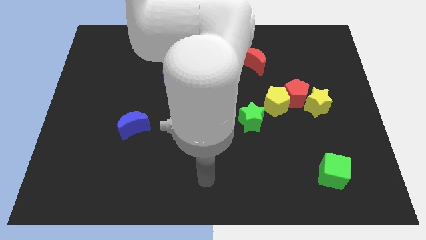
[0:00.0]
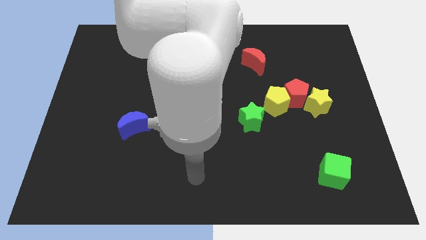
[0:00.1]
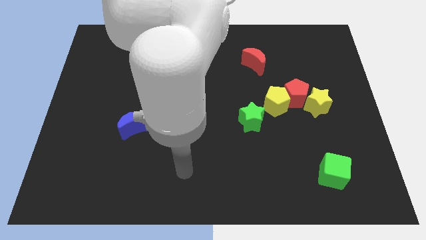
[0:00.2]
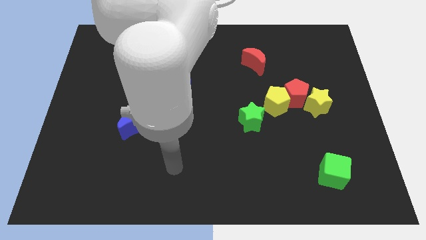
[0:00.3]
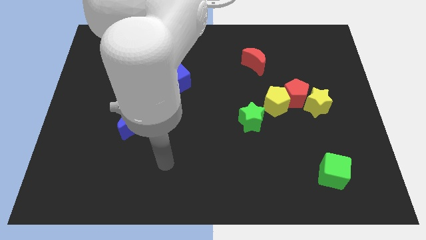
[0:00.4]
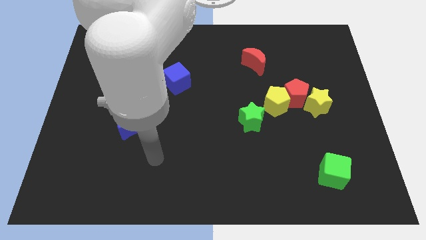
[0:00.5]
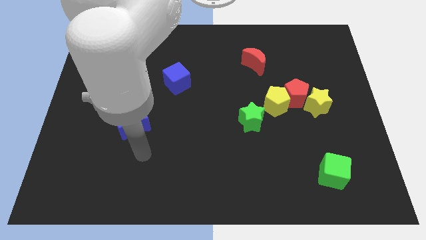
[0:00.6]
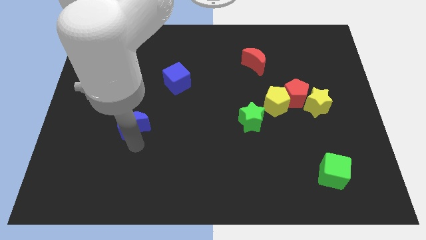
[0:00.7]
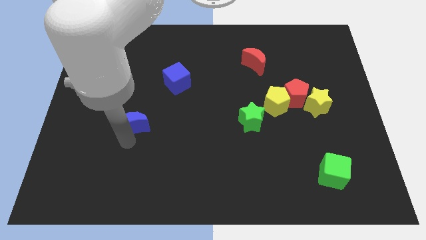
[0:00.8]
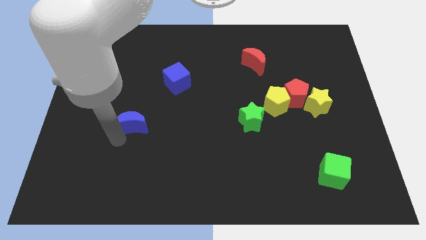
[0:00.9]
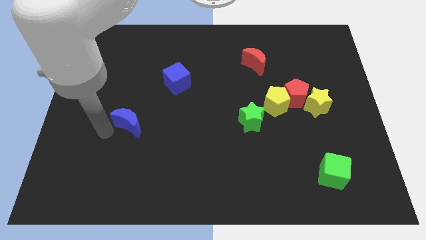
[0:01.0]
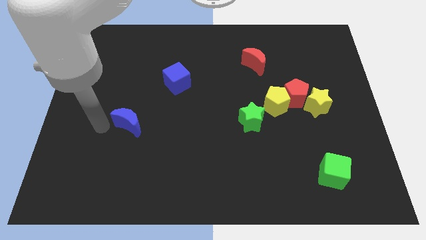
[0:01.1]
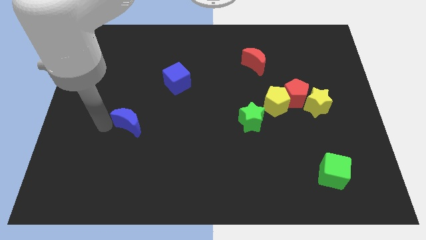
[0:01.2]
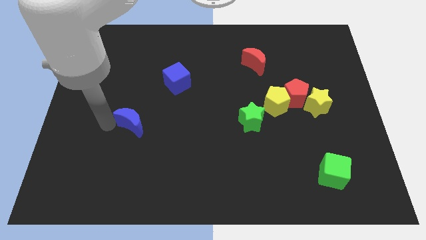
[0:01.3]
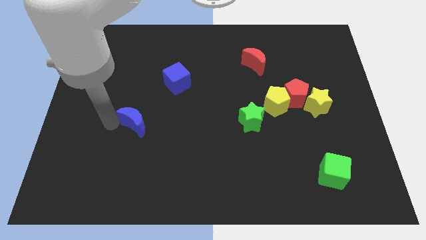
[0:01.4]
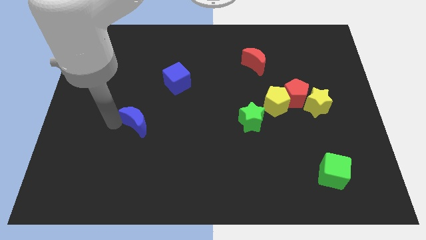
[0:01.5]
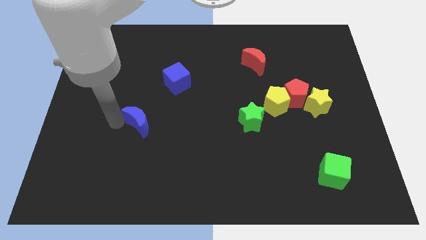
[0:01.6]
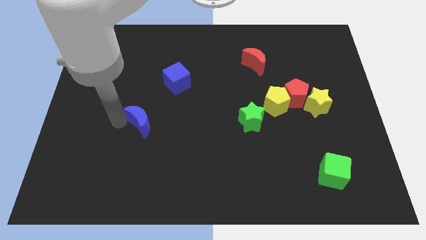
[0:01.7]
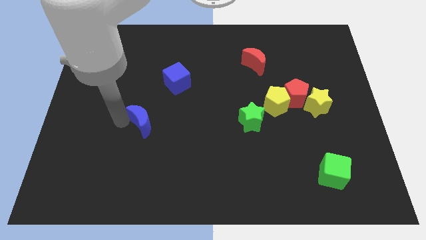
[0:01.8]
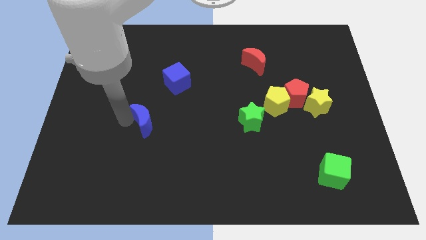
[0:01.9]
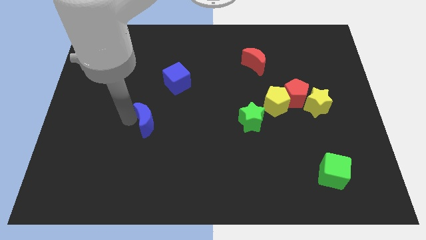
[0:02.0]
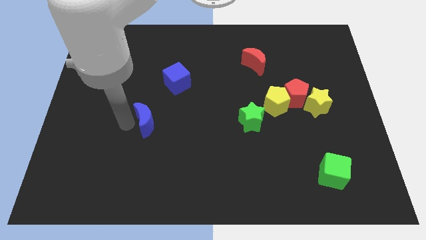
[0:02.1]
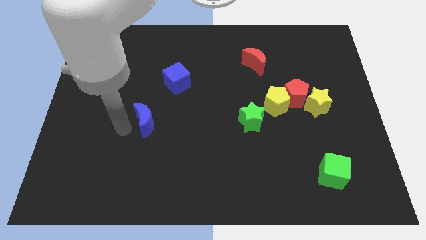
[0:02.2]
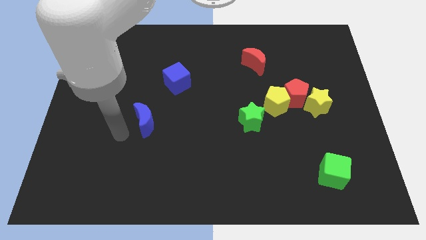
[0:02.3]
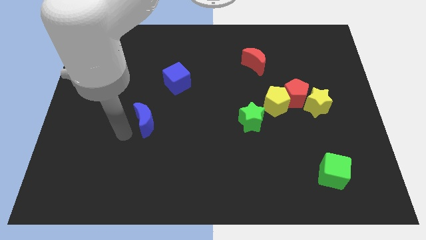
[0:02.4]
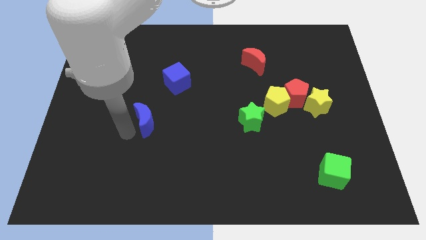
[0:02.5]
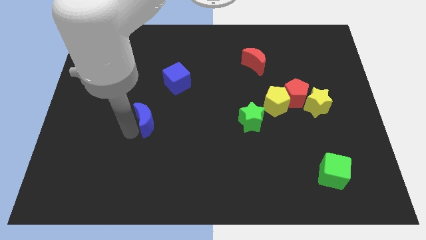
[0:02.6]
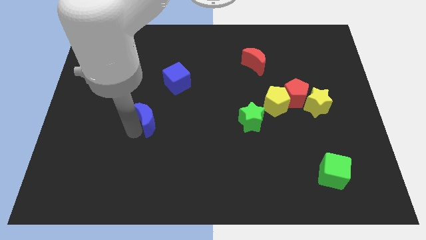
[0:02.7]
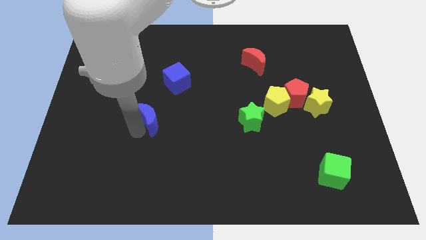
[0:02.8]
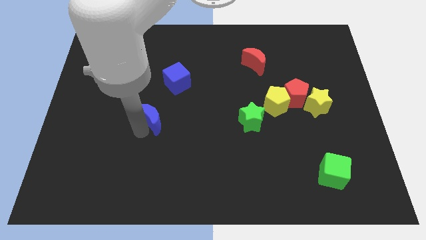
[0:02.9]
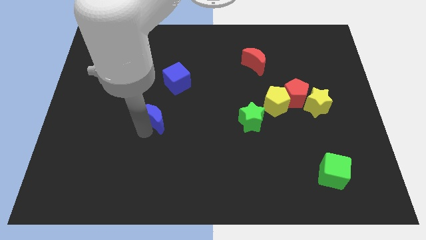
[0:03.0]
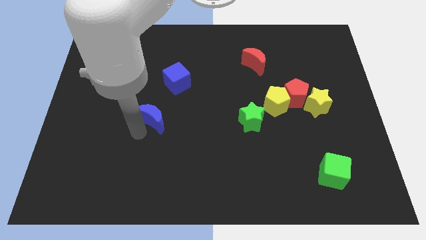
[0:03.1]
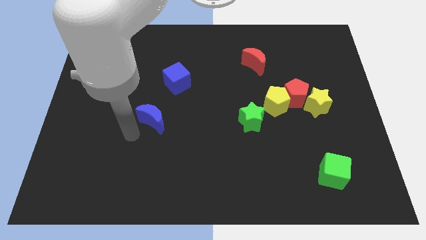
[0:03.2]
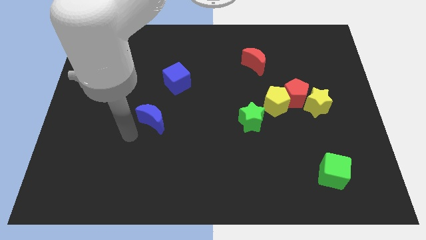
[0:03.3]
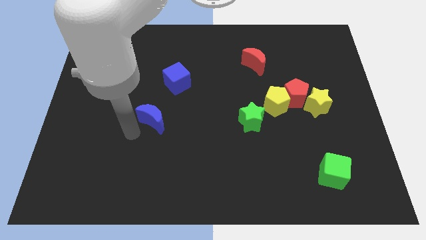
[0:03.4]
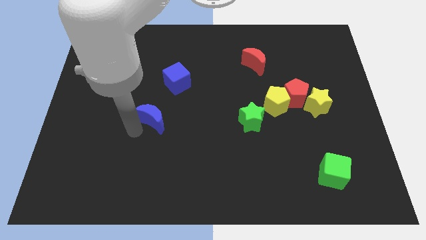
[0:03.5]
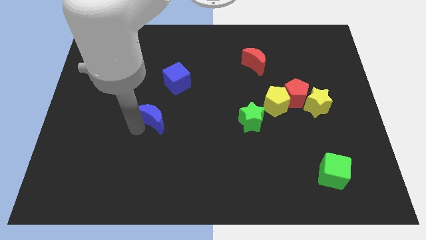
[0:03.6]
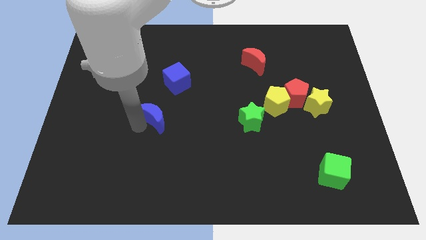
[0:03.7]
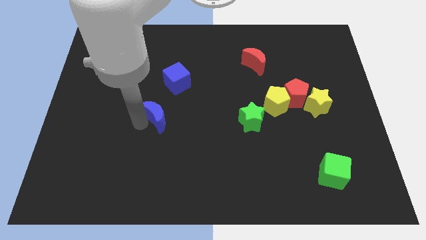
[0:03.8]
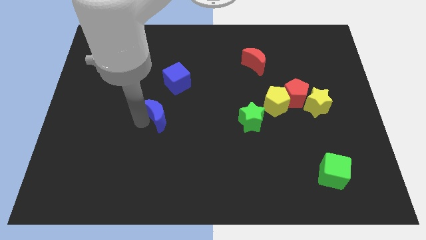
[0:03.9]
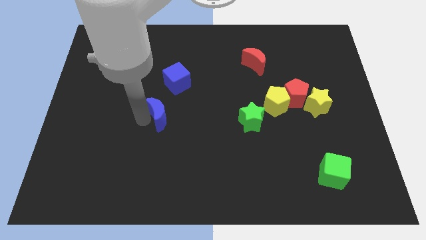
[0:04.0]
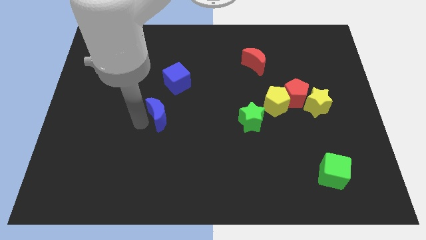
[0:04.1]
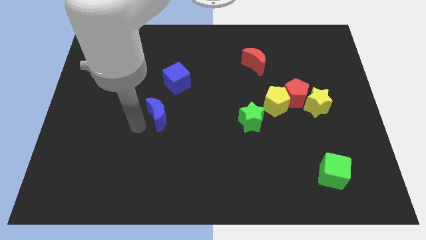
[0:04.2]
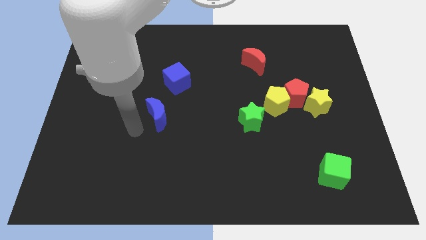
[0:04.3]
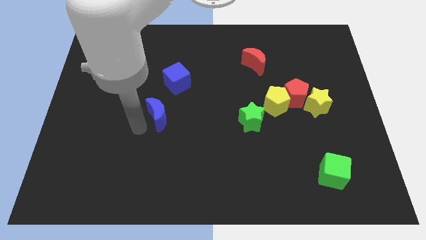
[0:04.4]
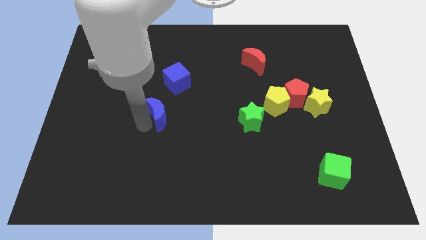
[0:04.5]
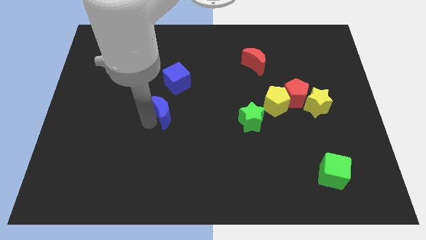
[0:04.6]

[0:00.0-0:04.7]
move the blue moon a bit upwards and to the right

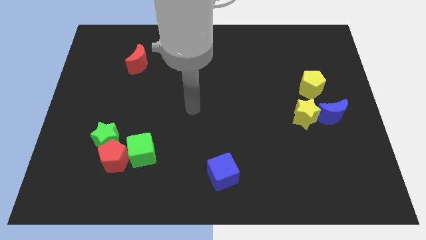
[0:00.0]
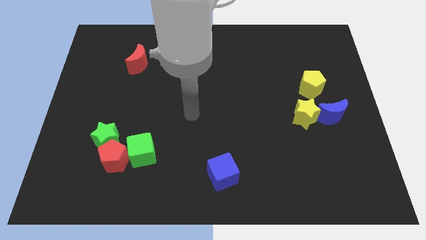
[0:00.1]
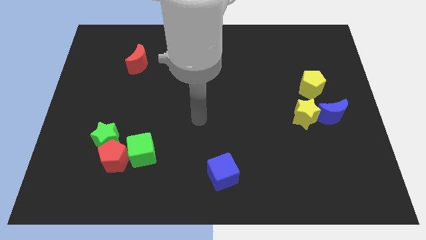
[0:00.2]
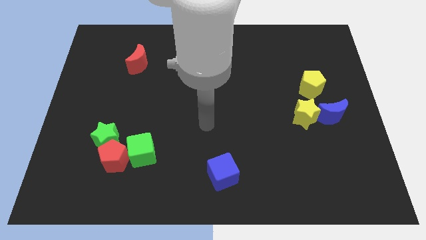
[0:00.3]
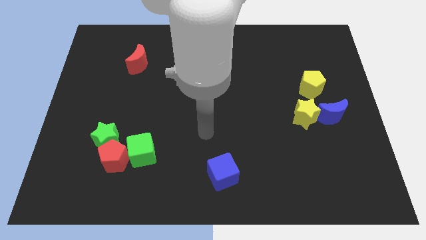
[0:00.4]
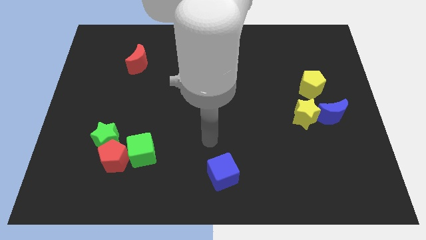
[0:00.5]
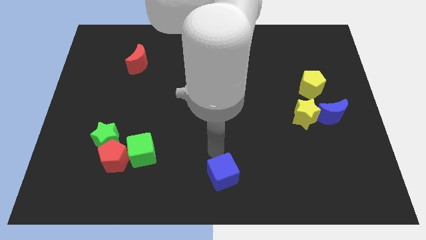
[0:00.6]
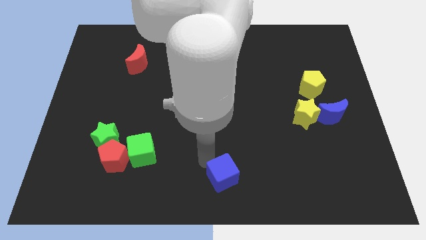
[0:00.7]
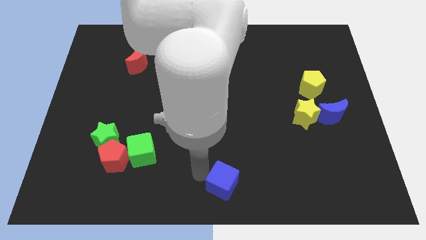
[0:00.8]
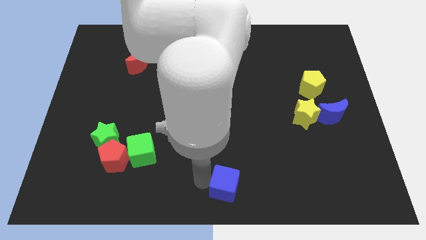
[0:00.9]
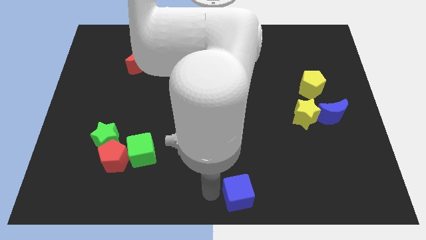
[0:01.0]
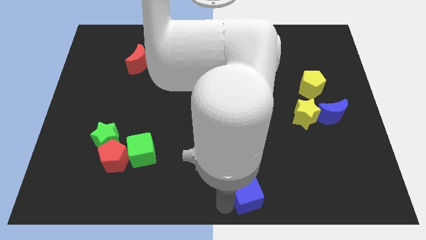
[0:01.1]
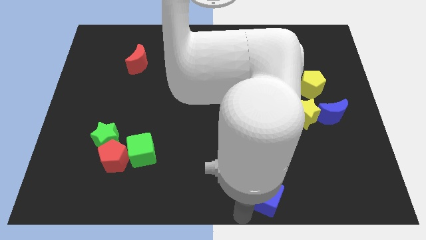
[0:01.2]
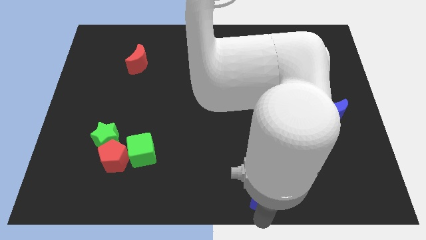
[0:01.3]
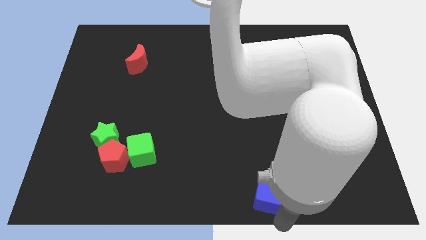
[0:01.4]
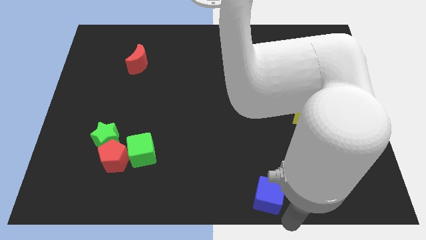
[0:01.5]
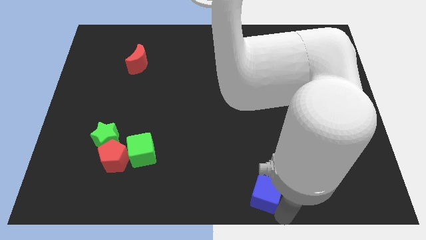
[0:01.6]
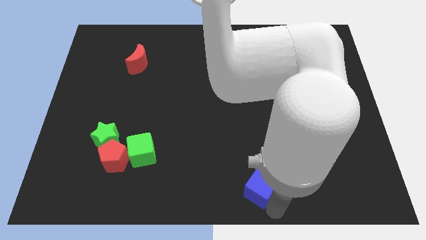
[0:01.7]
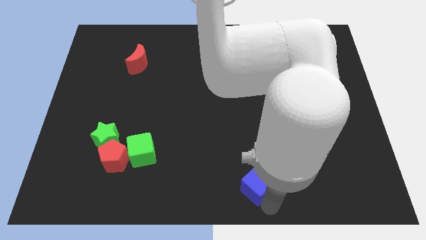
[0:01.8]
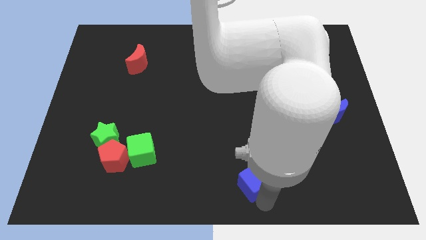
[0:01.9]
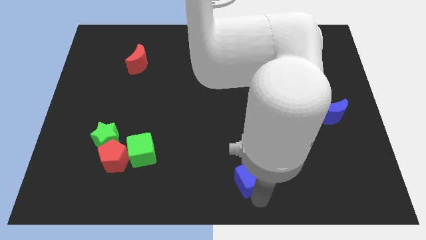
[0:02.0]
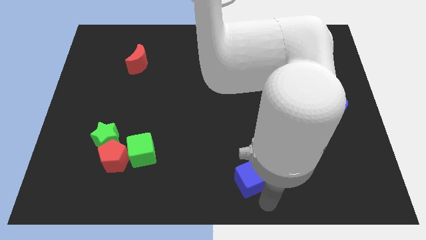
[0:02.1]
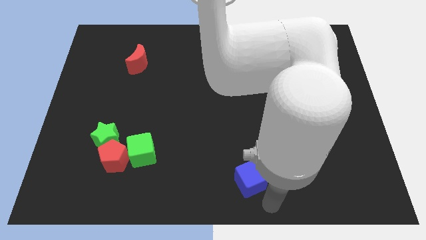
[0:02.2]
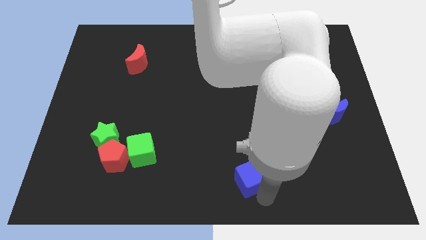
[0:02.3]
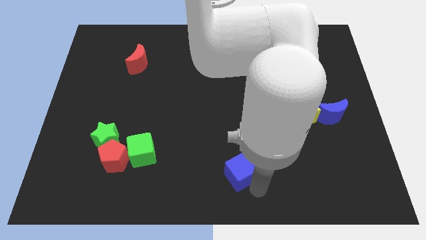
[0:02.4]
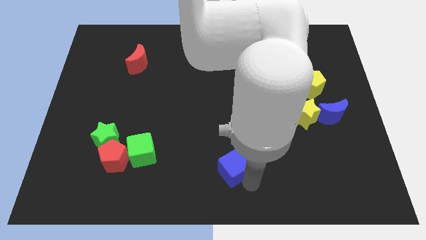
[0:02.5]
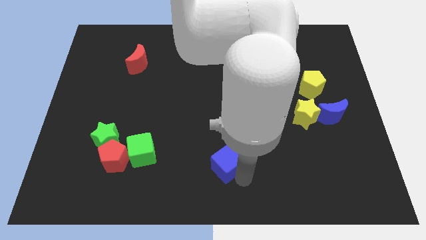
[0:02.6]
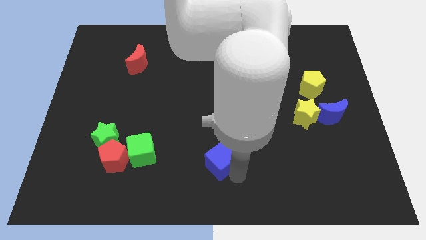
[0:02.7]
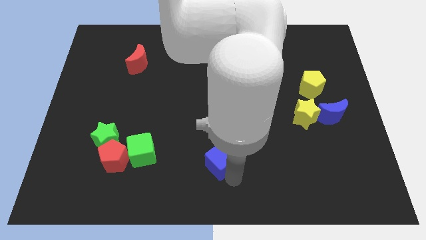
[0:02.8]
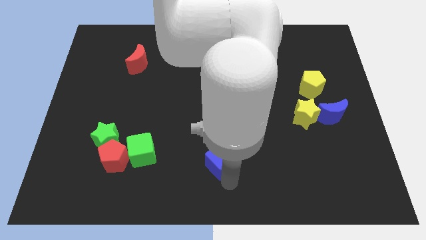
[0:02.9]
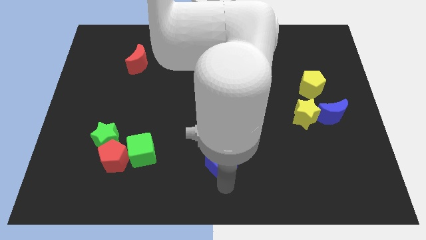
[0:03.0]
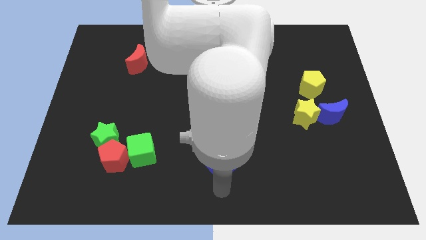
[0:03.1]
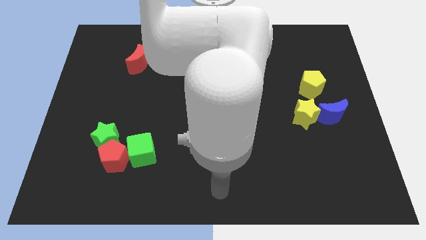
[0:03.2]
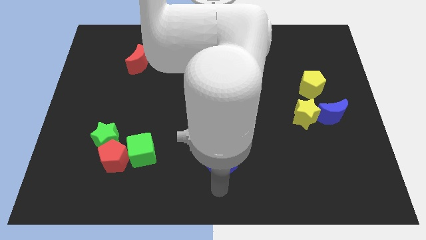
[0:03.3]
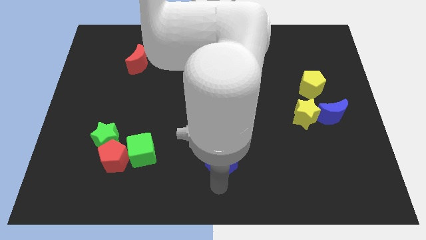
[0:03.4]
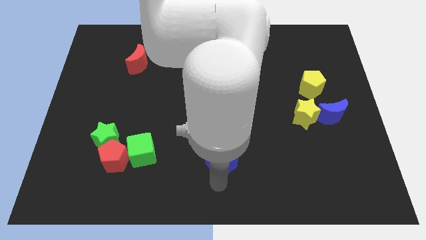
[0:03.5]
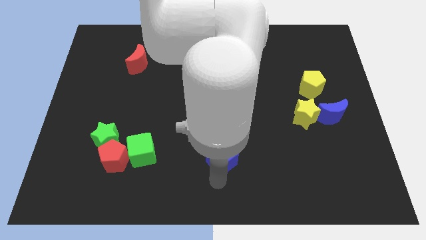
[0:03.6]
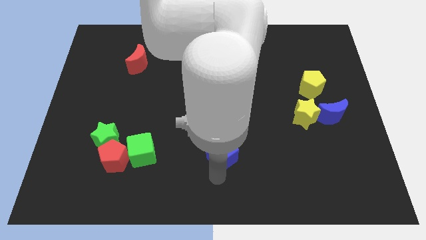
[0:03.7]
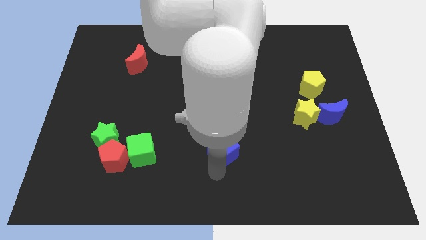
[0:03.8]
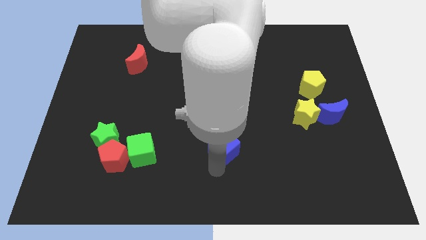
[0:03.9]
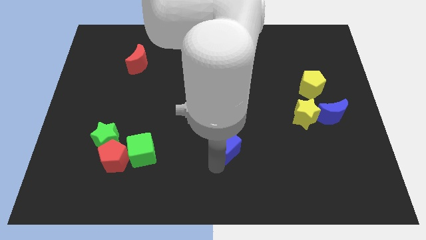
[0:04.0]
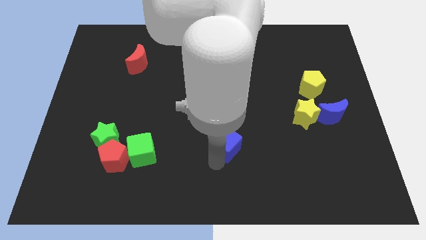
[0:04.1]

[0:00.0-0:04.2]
push the blue cube upwards somewhat
